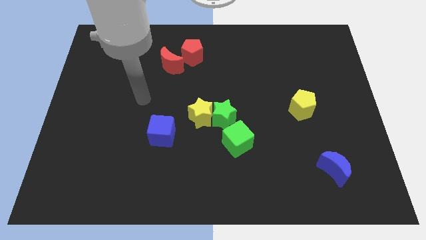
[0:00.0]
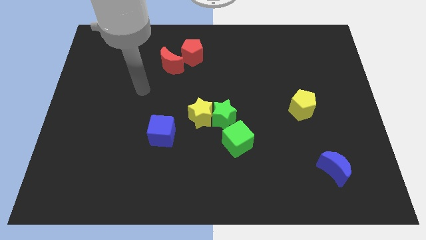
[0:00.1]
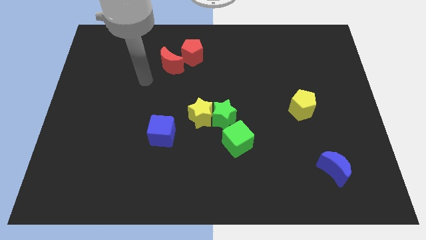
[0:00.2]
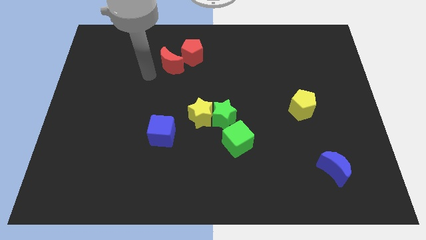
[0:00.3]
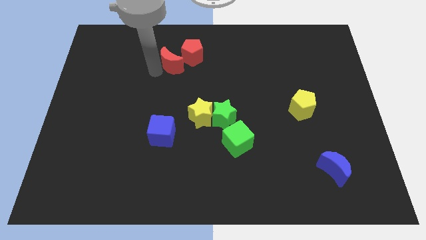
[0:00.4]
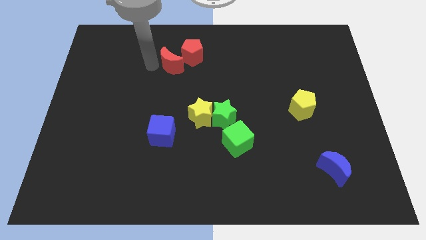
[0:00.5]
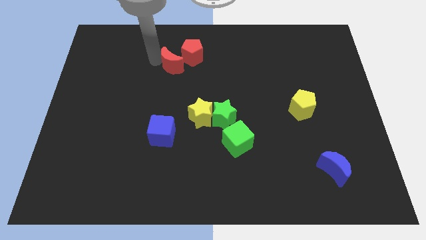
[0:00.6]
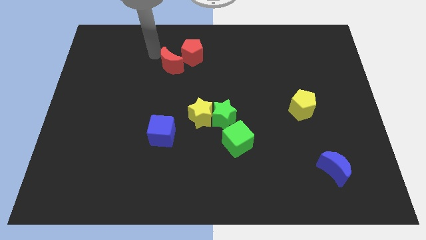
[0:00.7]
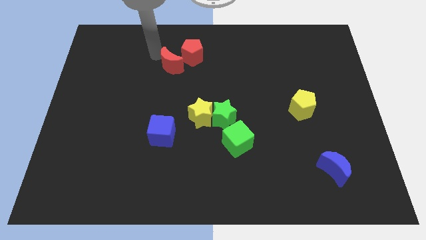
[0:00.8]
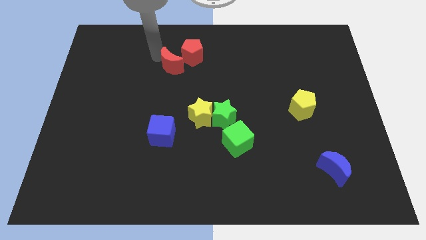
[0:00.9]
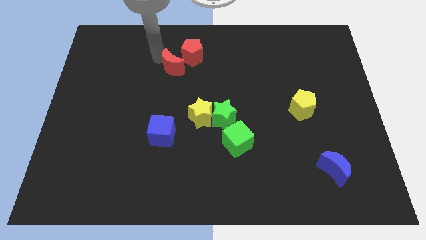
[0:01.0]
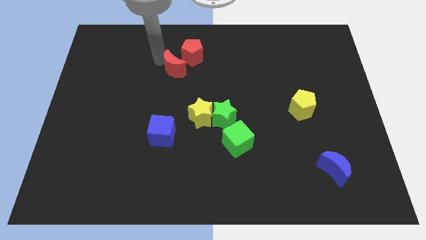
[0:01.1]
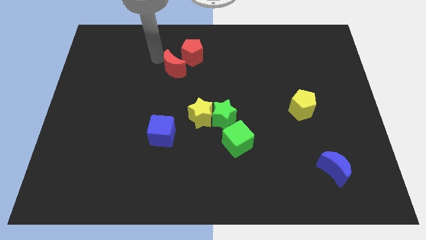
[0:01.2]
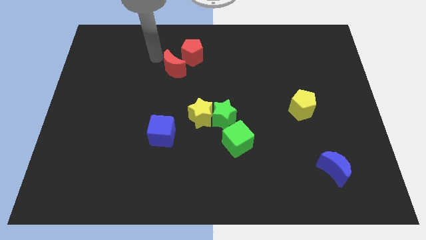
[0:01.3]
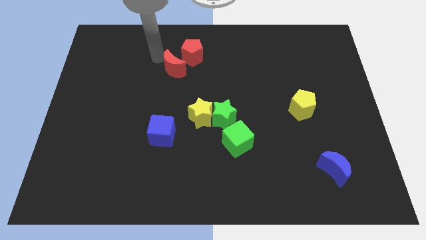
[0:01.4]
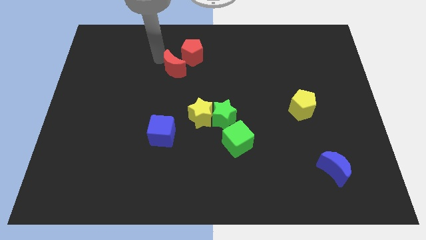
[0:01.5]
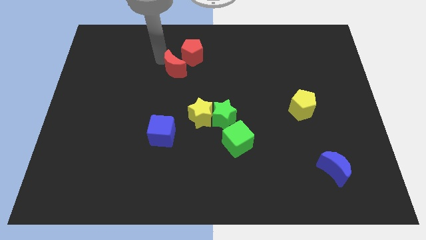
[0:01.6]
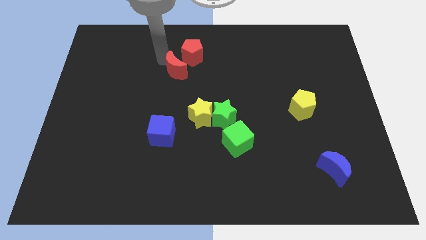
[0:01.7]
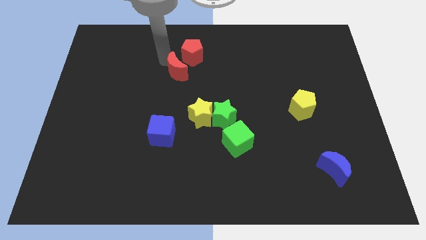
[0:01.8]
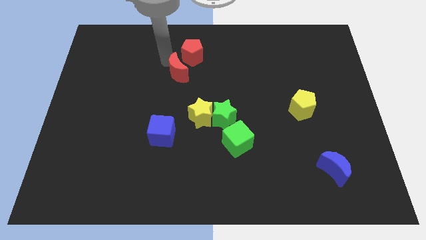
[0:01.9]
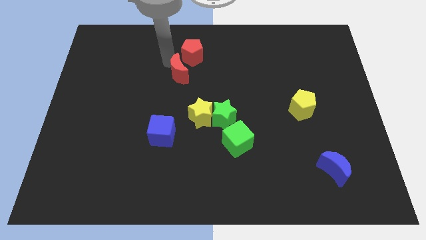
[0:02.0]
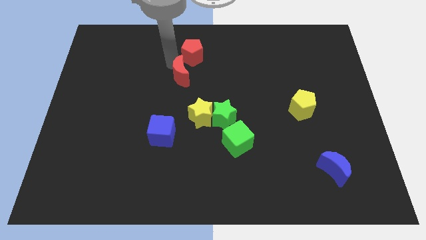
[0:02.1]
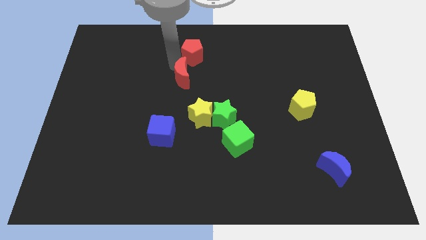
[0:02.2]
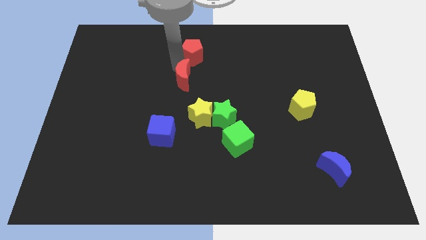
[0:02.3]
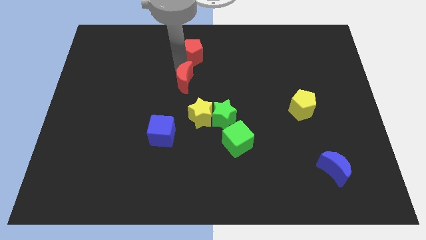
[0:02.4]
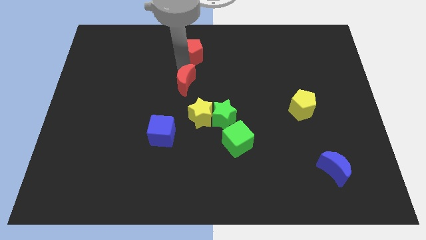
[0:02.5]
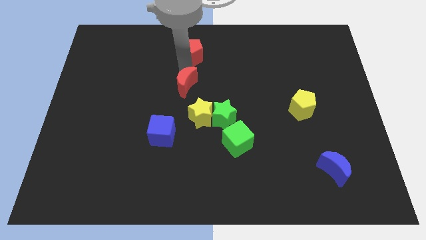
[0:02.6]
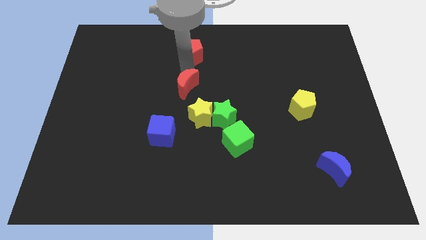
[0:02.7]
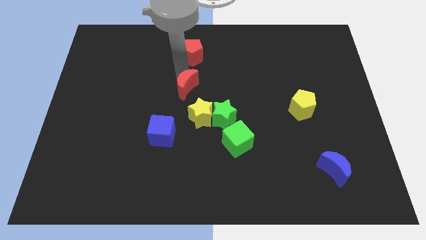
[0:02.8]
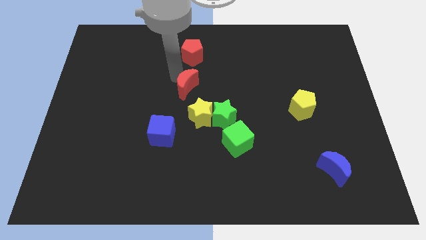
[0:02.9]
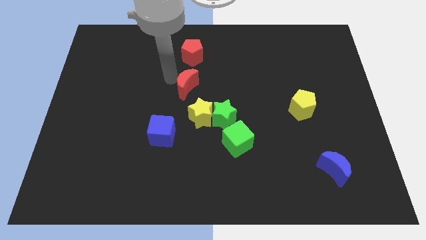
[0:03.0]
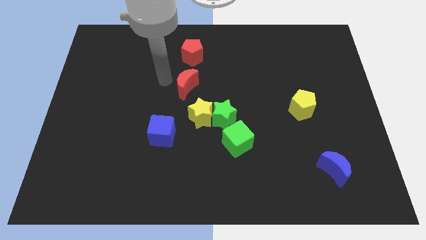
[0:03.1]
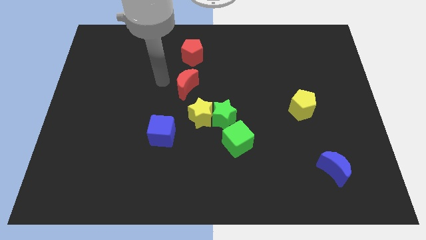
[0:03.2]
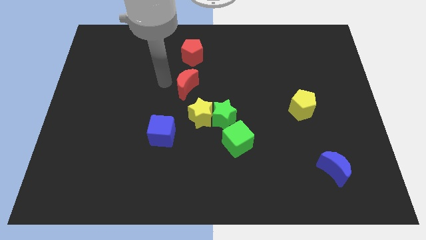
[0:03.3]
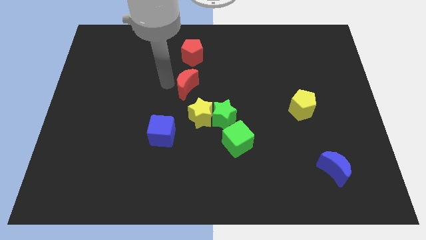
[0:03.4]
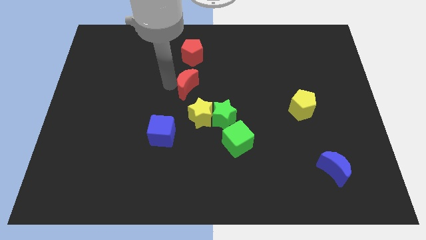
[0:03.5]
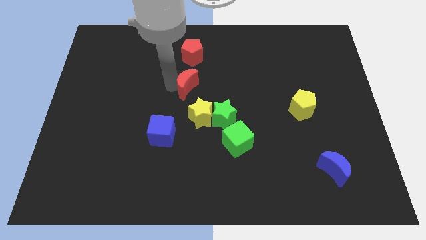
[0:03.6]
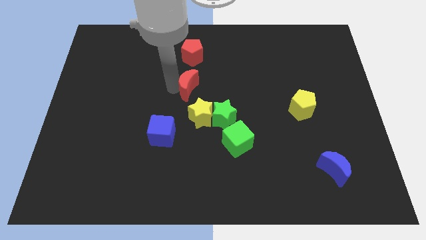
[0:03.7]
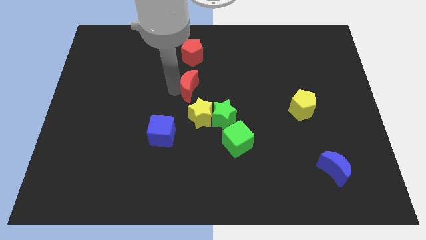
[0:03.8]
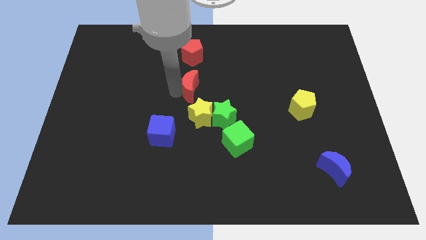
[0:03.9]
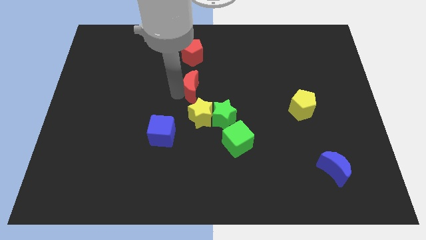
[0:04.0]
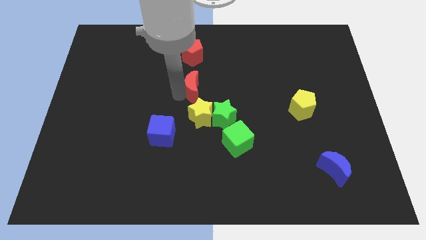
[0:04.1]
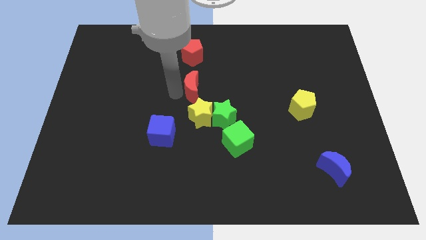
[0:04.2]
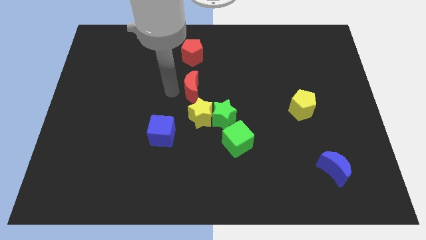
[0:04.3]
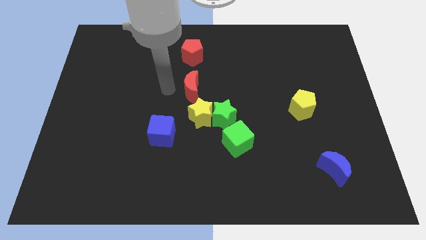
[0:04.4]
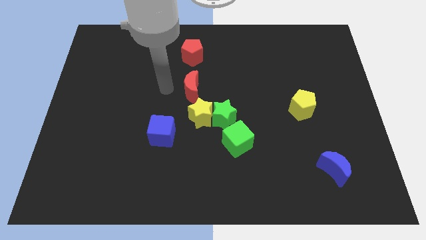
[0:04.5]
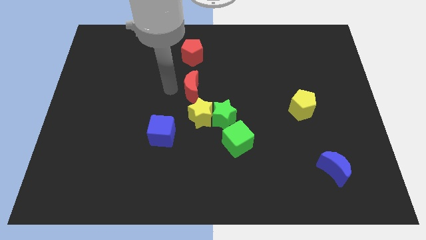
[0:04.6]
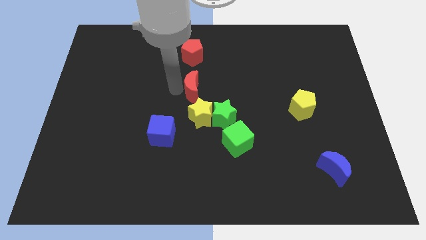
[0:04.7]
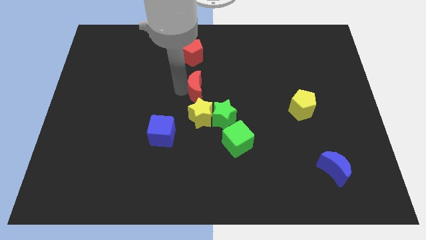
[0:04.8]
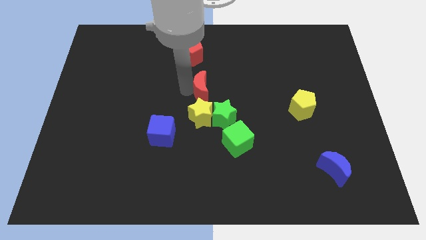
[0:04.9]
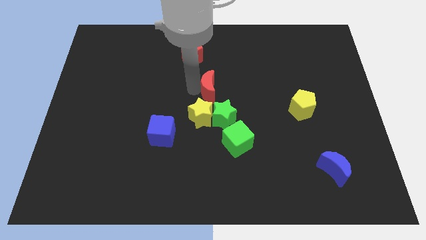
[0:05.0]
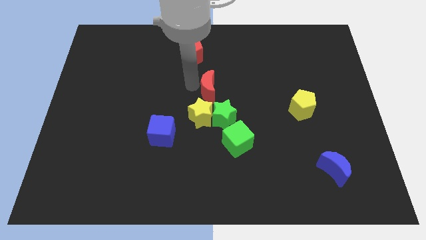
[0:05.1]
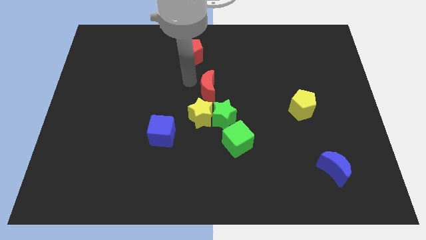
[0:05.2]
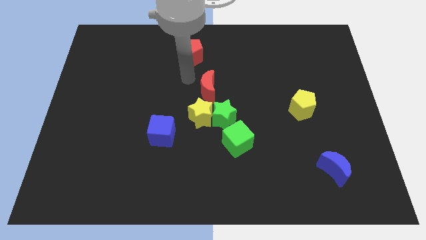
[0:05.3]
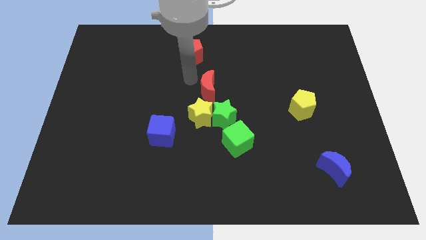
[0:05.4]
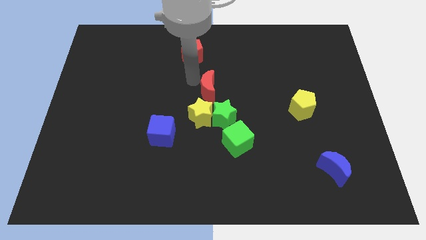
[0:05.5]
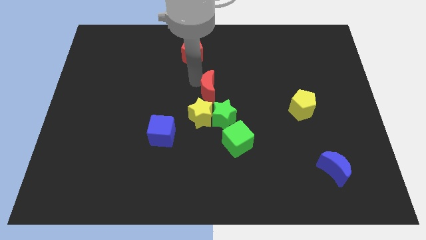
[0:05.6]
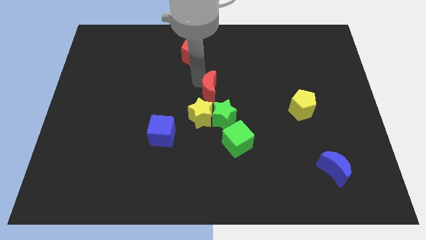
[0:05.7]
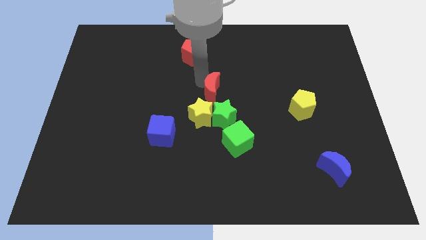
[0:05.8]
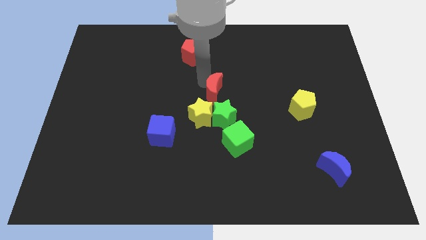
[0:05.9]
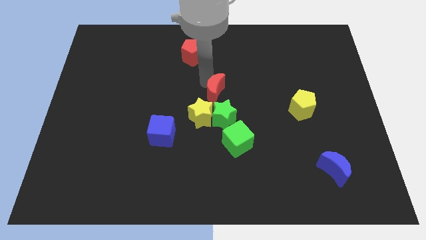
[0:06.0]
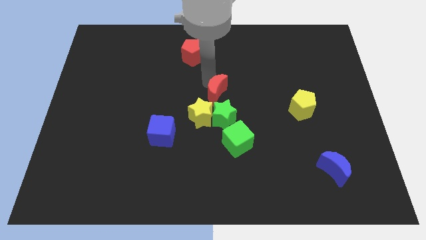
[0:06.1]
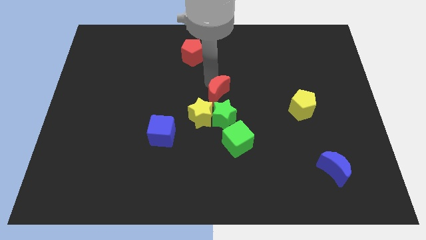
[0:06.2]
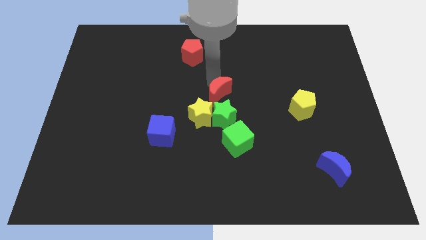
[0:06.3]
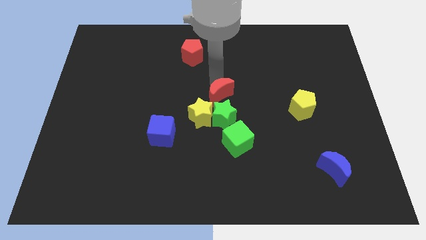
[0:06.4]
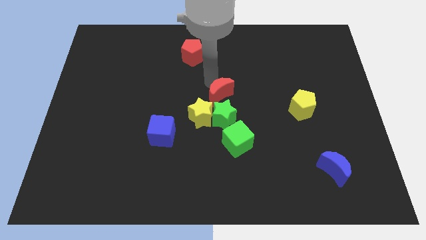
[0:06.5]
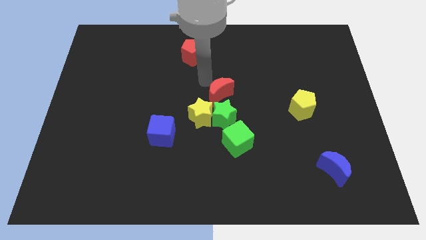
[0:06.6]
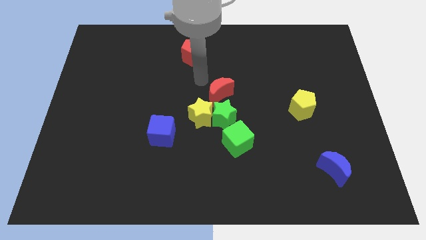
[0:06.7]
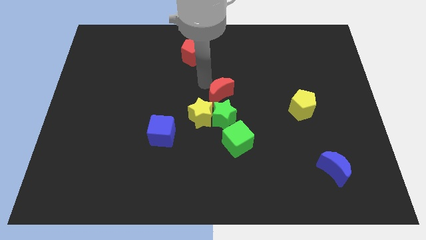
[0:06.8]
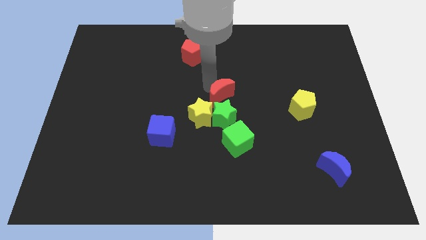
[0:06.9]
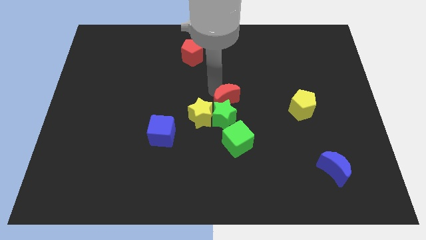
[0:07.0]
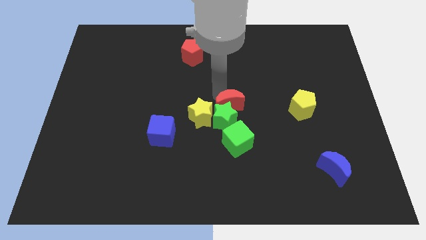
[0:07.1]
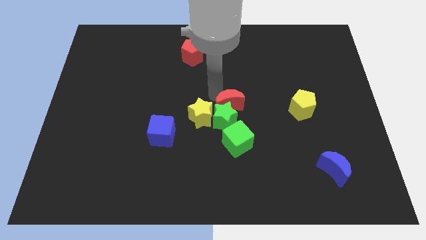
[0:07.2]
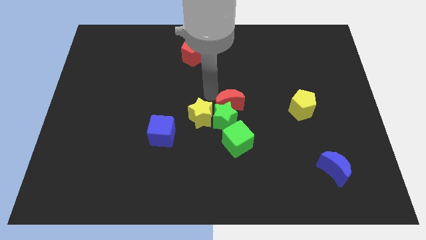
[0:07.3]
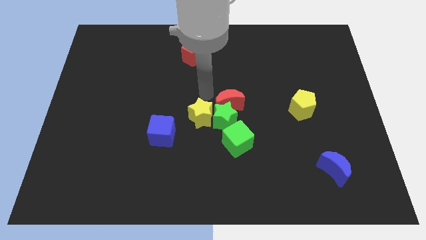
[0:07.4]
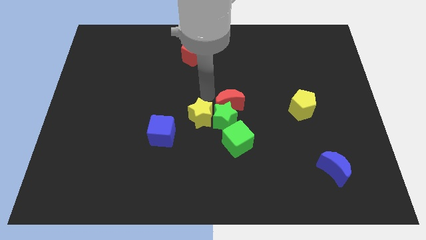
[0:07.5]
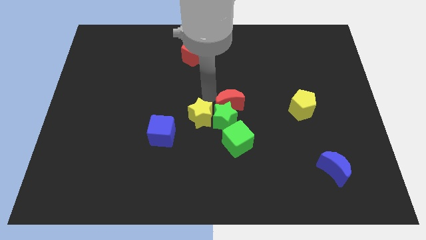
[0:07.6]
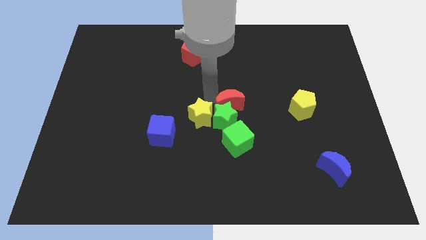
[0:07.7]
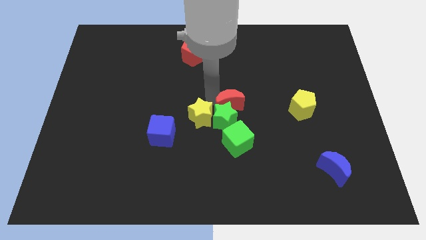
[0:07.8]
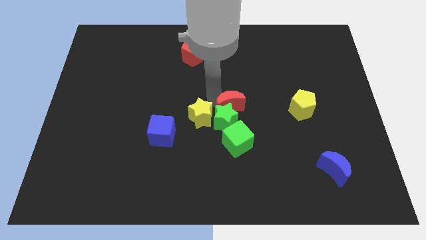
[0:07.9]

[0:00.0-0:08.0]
push the red moon diagonally downwards and right
